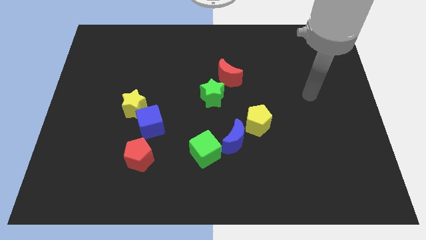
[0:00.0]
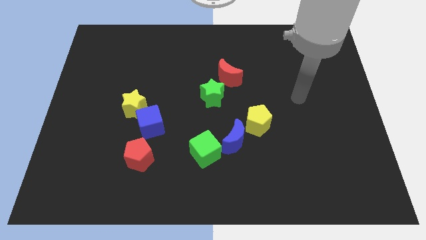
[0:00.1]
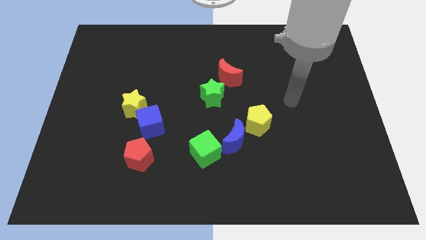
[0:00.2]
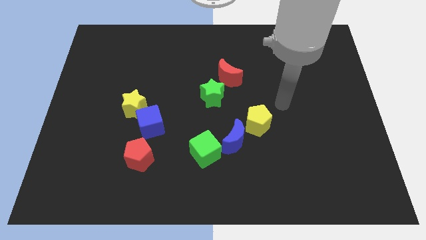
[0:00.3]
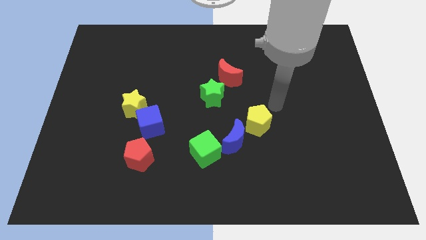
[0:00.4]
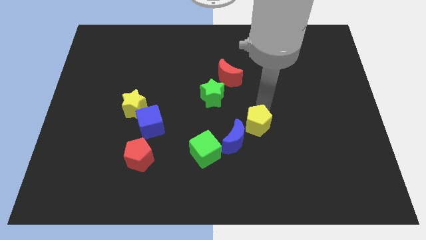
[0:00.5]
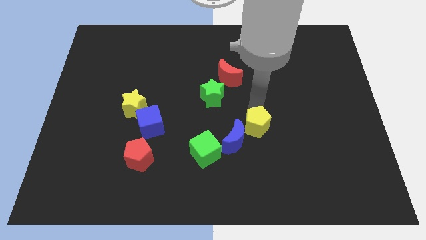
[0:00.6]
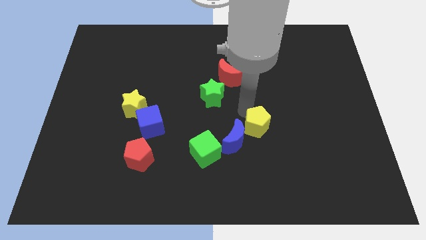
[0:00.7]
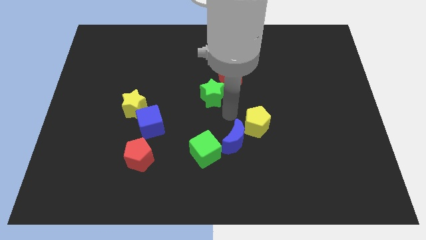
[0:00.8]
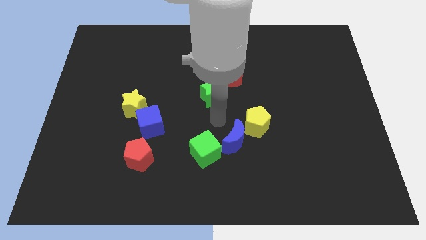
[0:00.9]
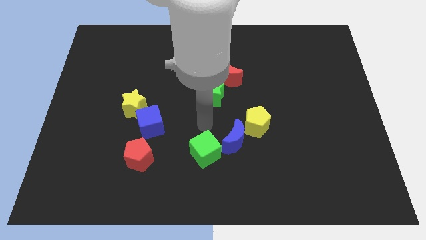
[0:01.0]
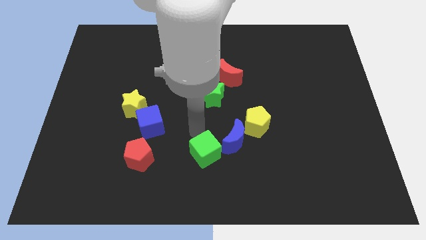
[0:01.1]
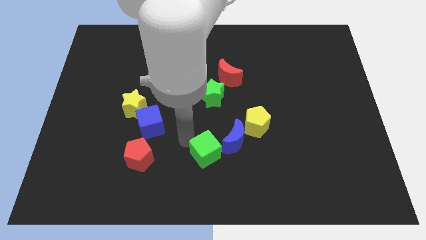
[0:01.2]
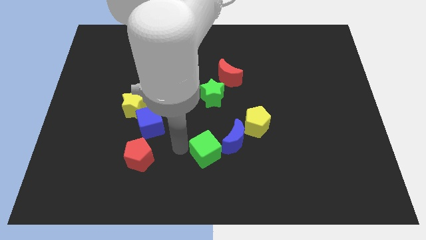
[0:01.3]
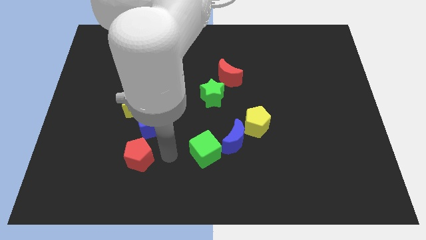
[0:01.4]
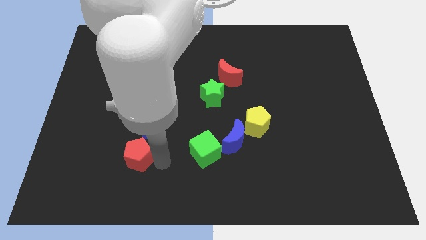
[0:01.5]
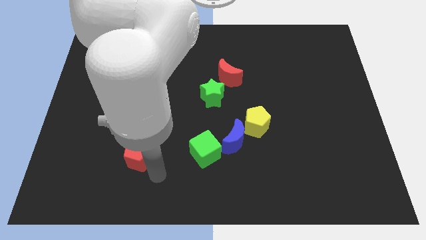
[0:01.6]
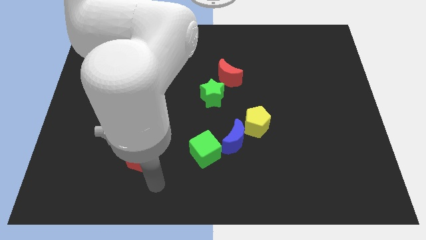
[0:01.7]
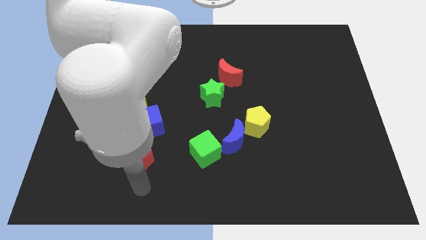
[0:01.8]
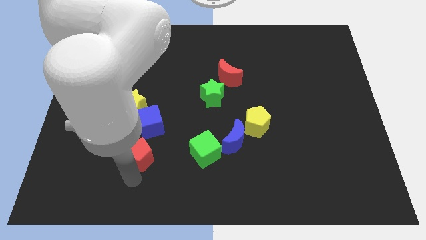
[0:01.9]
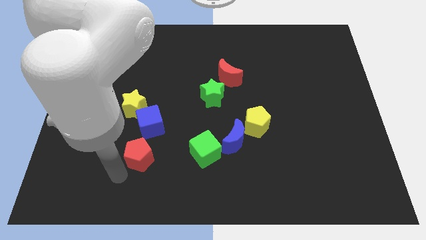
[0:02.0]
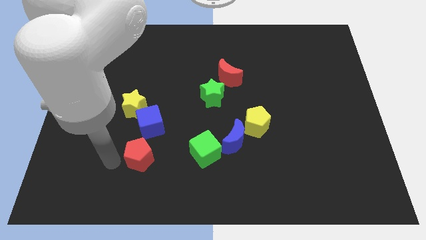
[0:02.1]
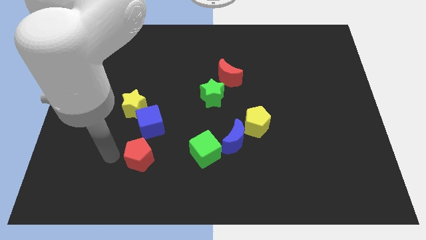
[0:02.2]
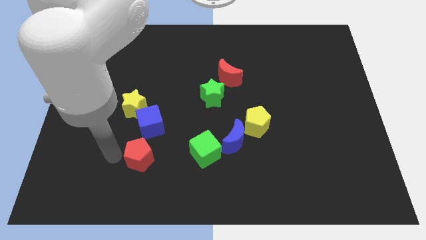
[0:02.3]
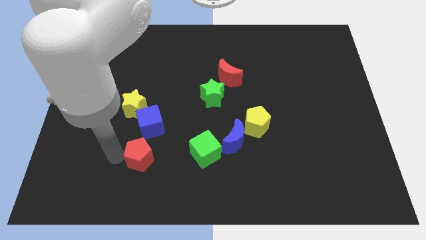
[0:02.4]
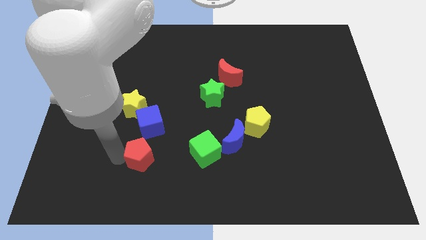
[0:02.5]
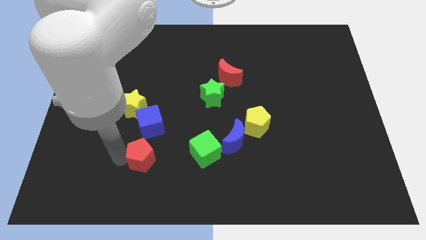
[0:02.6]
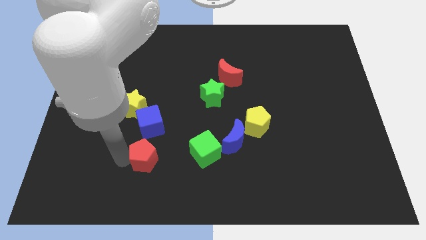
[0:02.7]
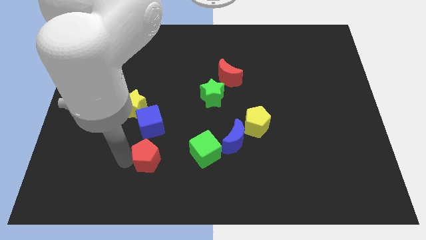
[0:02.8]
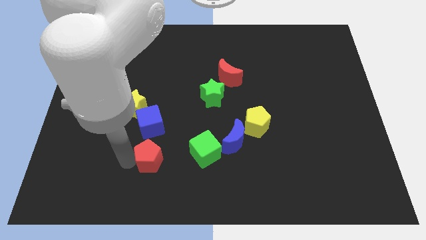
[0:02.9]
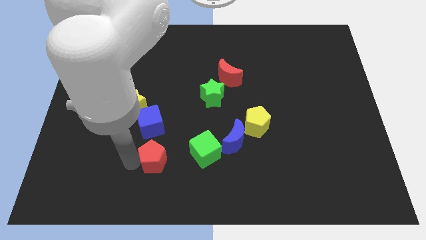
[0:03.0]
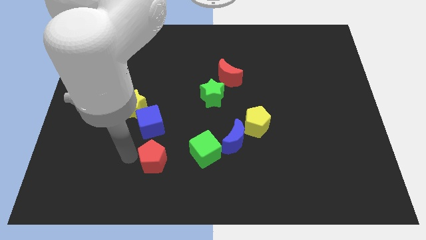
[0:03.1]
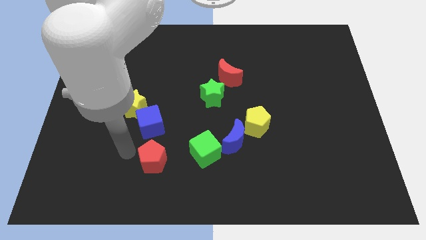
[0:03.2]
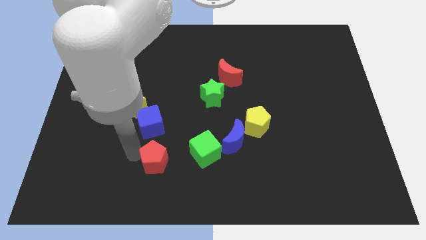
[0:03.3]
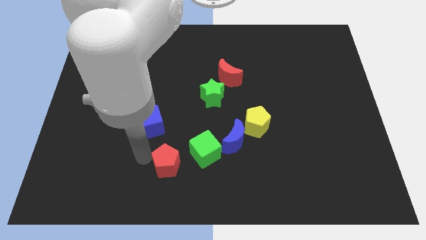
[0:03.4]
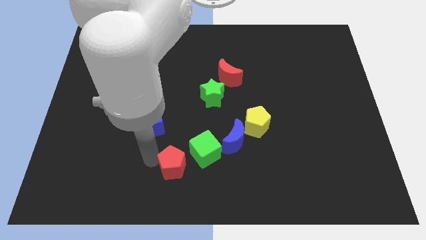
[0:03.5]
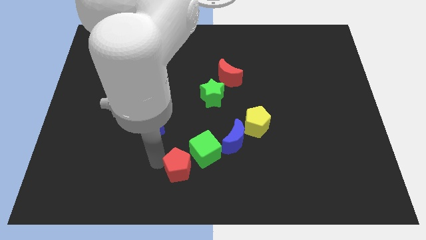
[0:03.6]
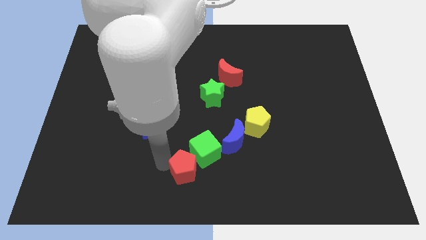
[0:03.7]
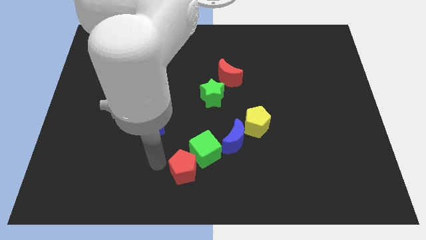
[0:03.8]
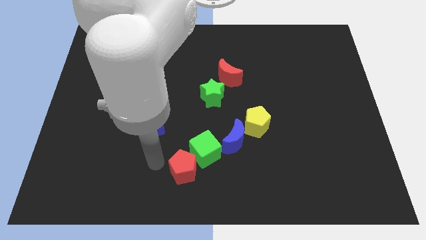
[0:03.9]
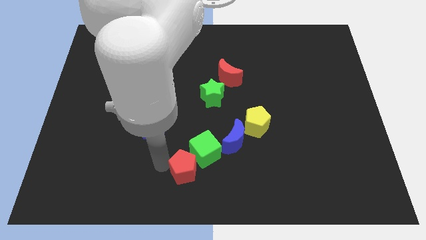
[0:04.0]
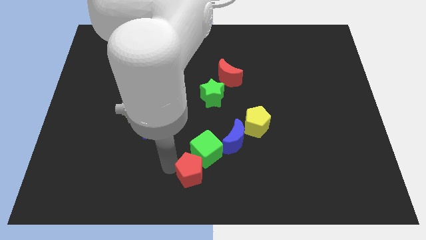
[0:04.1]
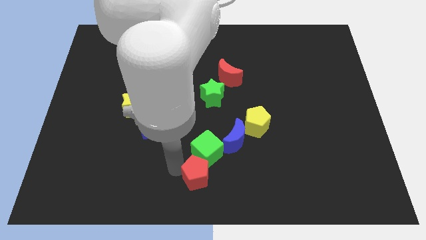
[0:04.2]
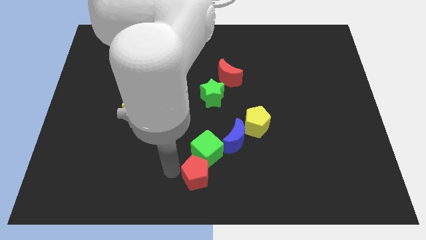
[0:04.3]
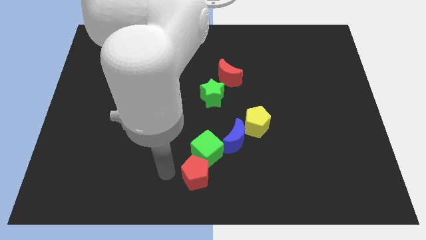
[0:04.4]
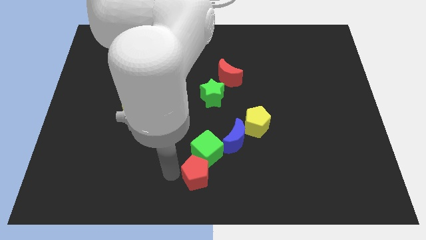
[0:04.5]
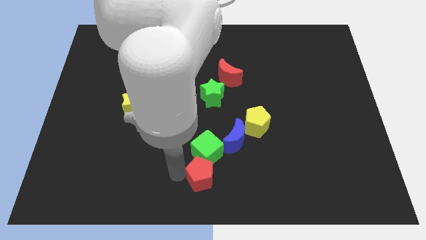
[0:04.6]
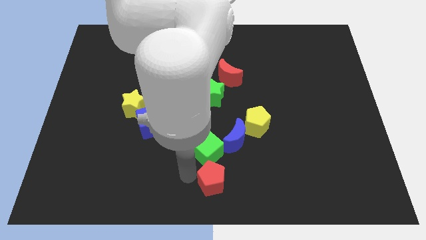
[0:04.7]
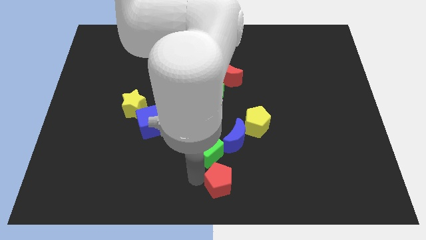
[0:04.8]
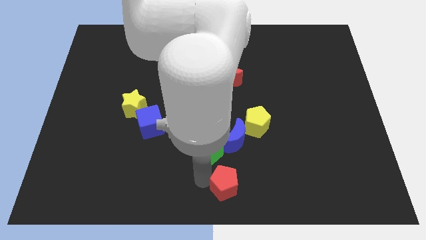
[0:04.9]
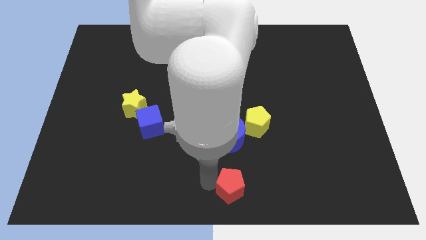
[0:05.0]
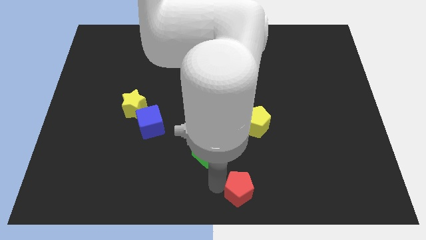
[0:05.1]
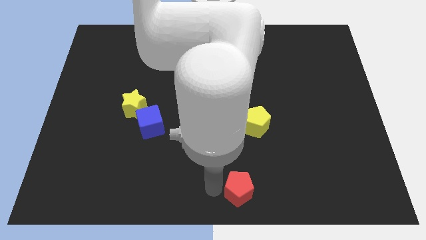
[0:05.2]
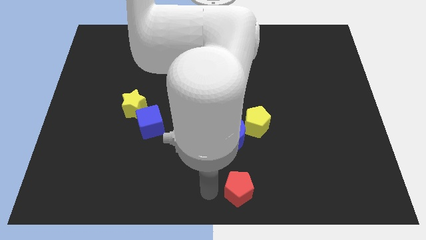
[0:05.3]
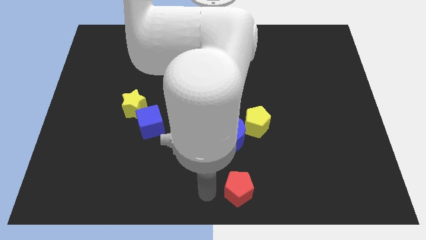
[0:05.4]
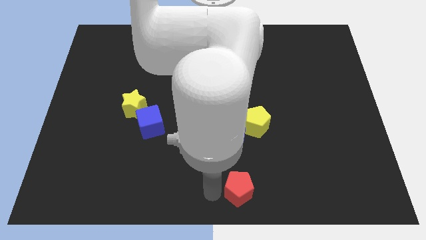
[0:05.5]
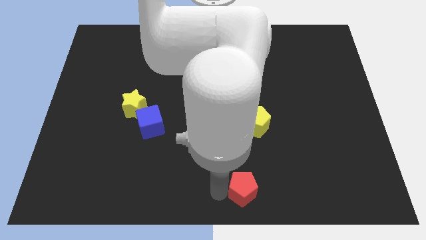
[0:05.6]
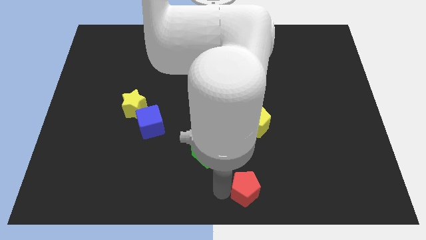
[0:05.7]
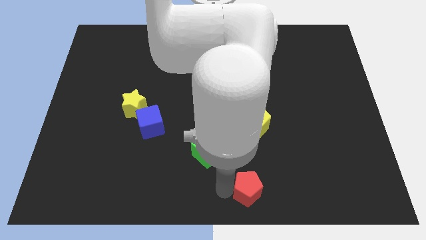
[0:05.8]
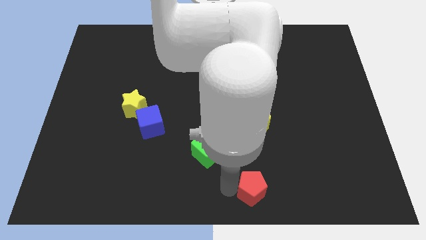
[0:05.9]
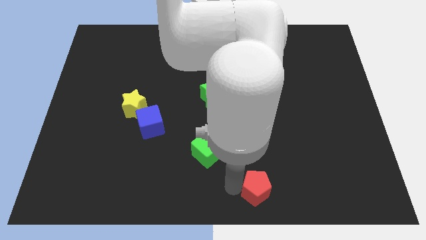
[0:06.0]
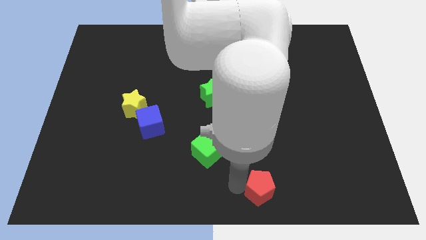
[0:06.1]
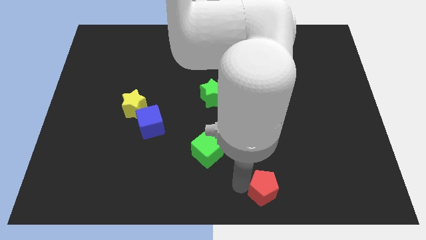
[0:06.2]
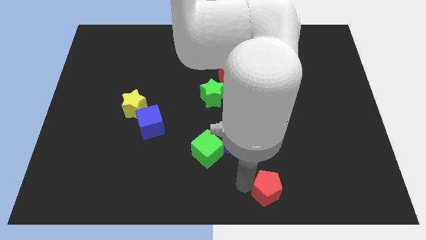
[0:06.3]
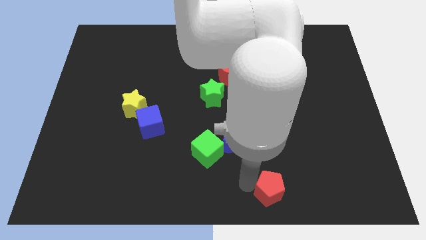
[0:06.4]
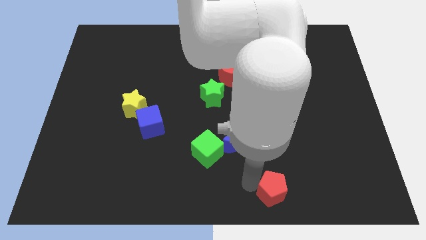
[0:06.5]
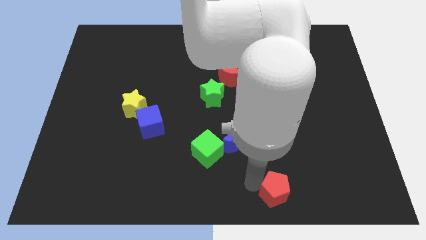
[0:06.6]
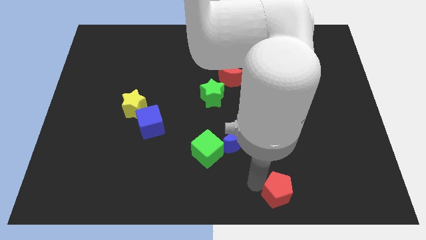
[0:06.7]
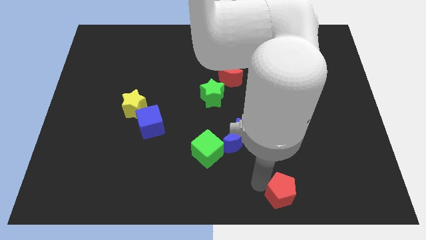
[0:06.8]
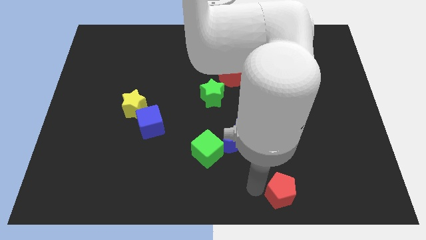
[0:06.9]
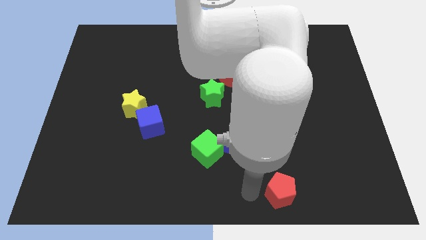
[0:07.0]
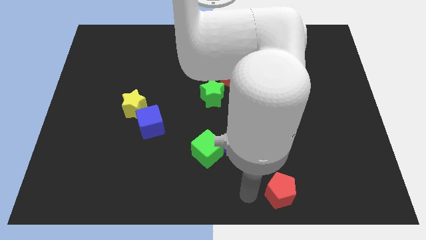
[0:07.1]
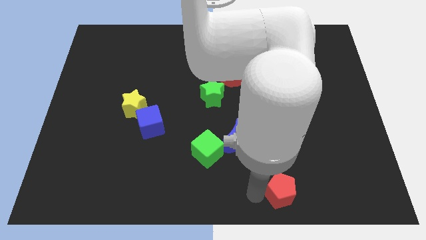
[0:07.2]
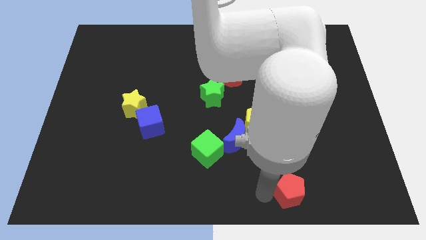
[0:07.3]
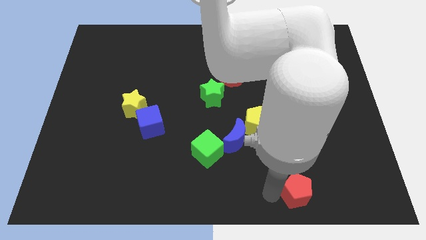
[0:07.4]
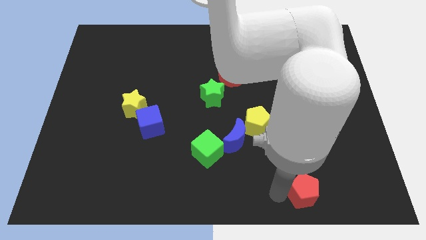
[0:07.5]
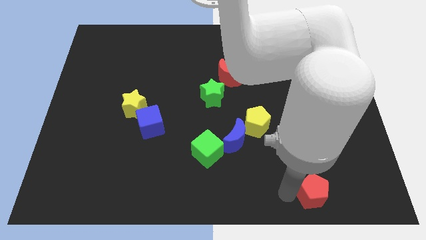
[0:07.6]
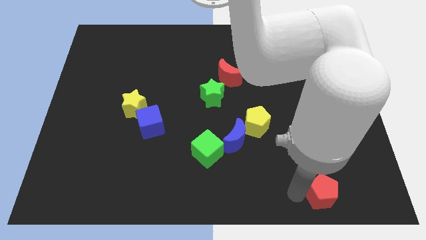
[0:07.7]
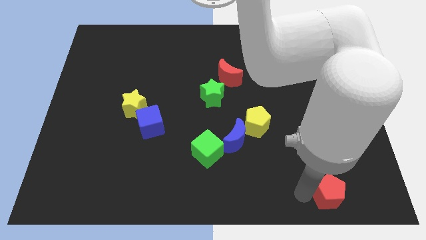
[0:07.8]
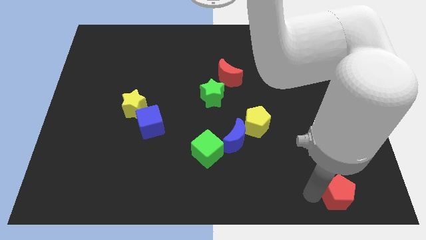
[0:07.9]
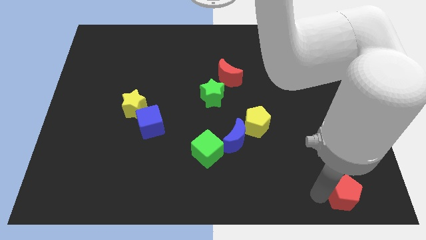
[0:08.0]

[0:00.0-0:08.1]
slide the red pentagon to the bottom right corner
